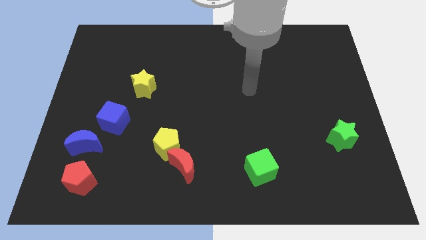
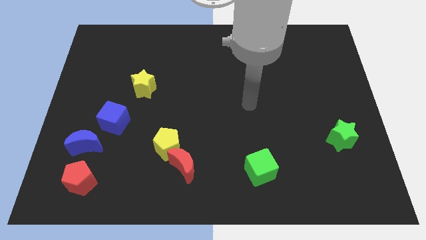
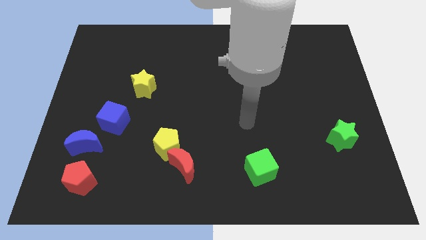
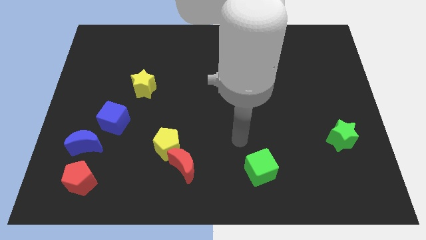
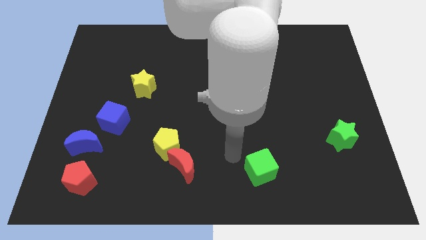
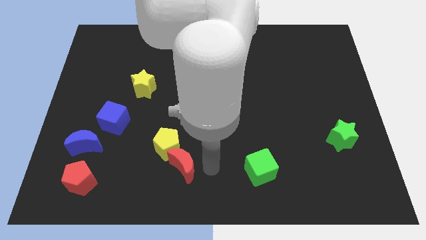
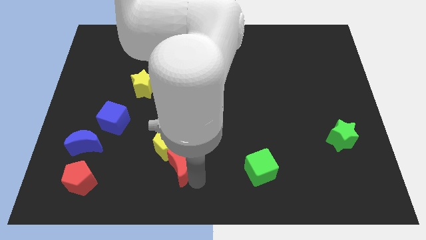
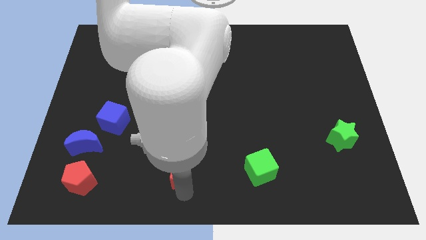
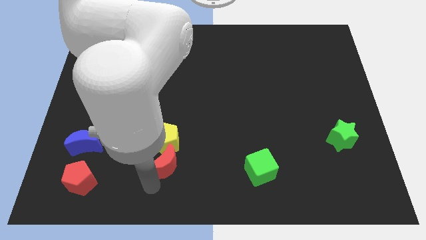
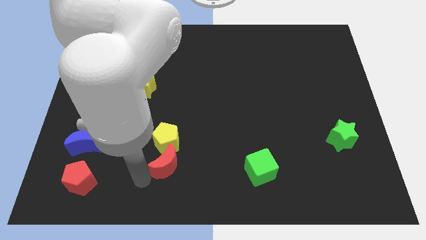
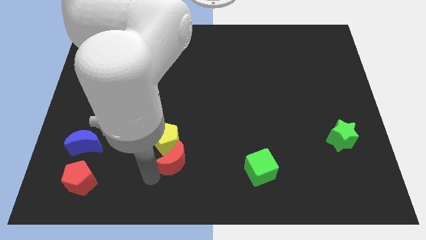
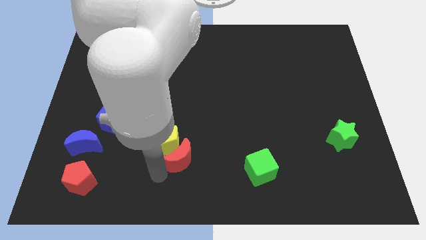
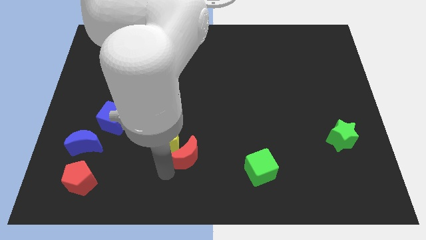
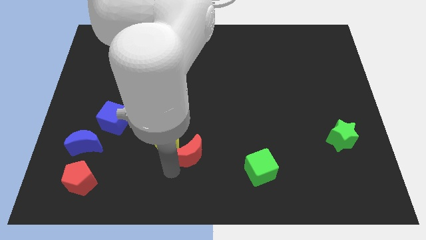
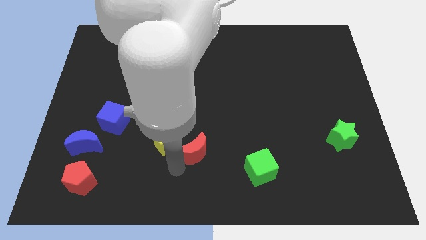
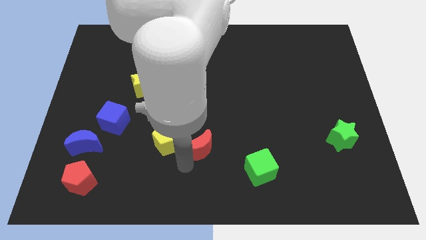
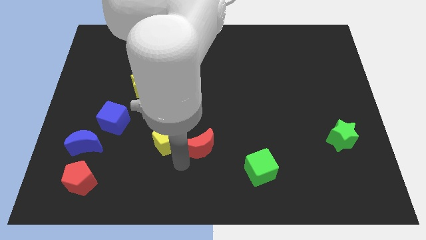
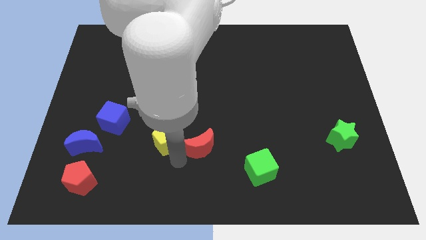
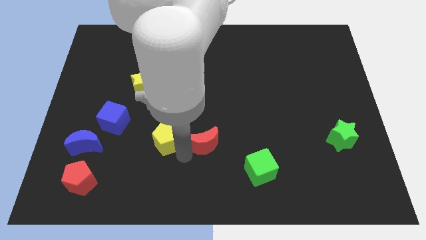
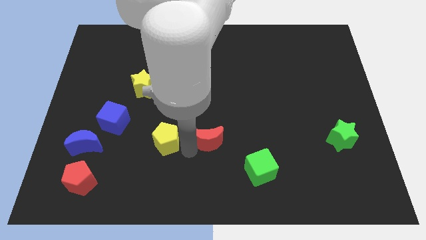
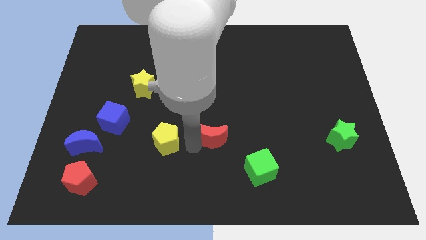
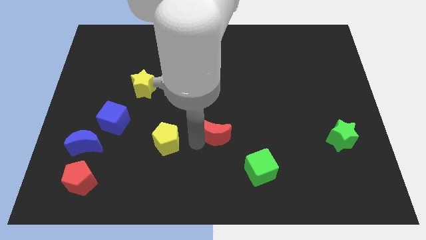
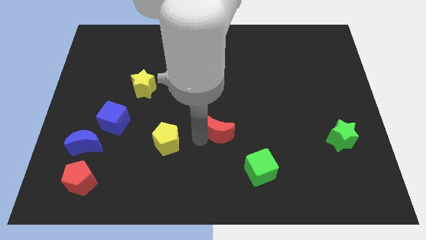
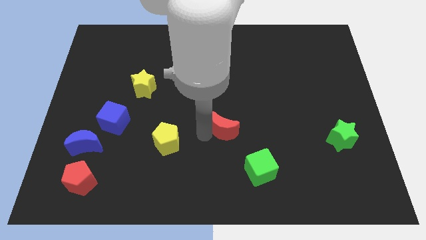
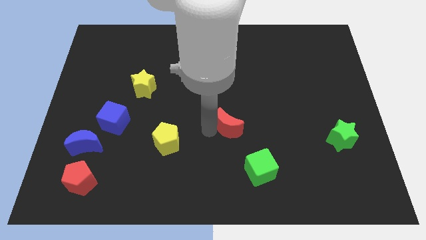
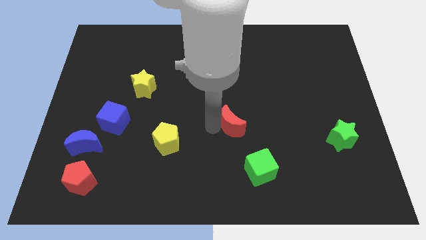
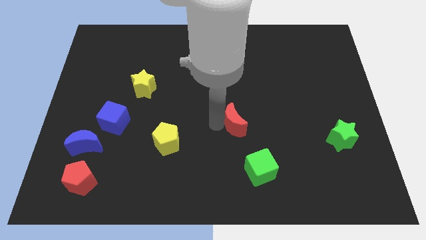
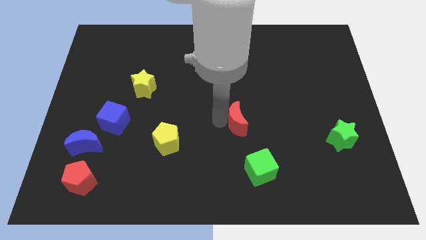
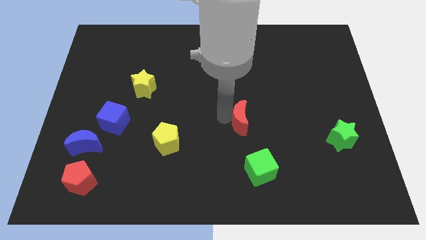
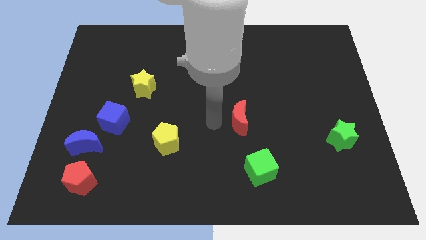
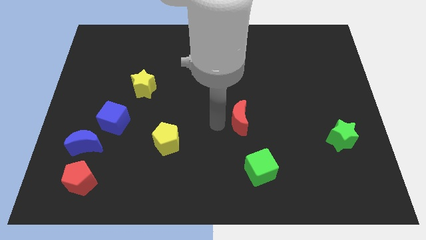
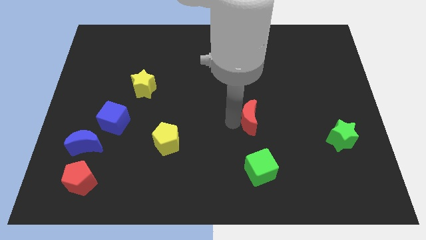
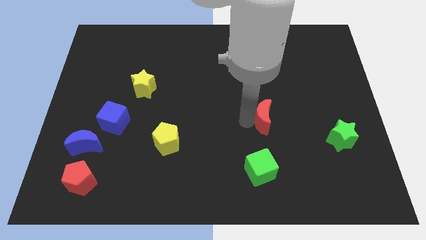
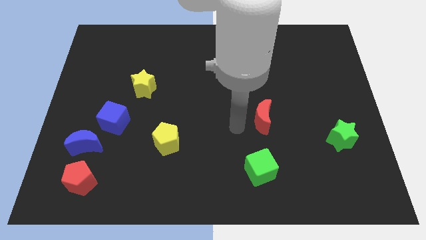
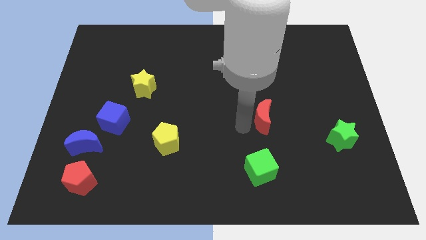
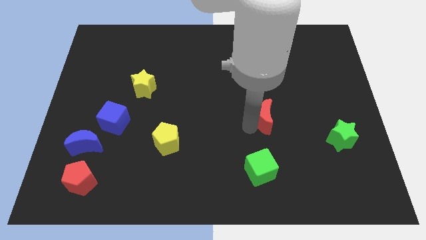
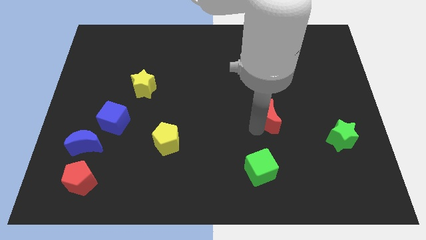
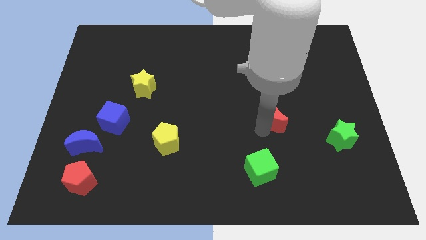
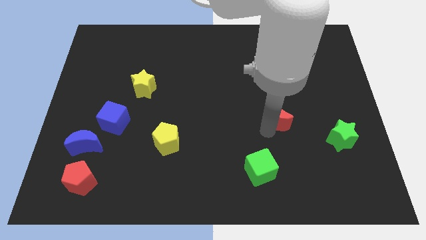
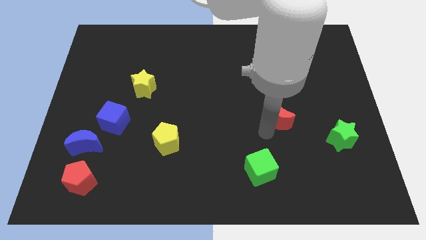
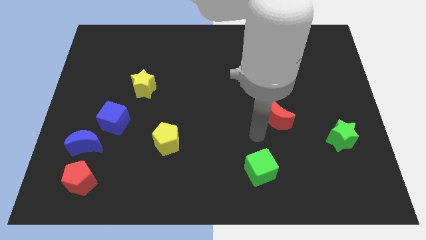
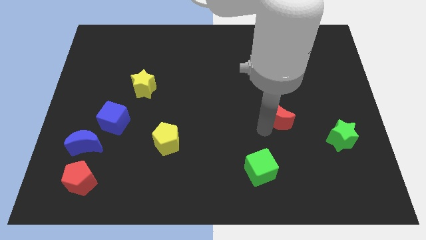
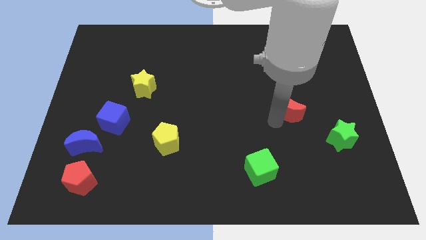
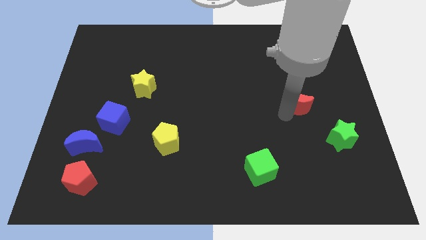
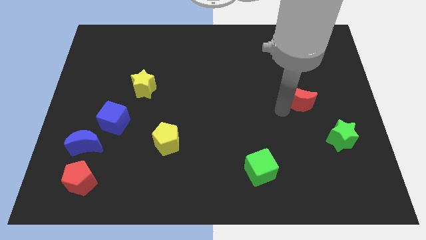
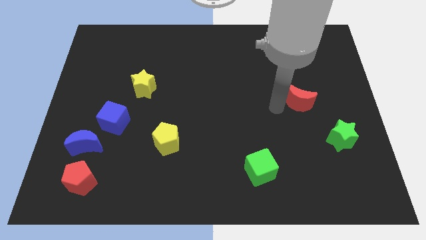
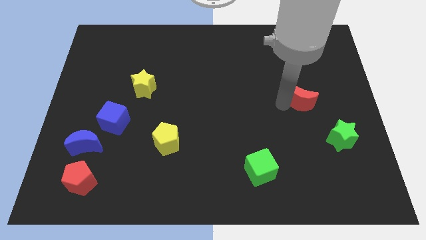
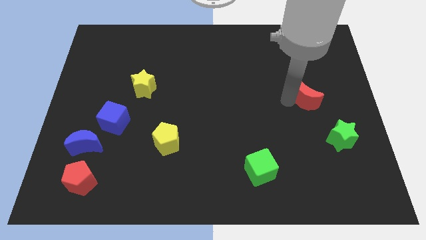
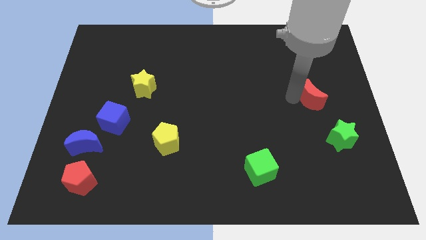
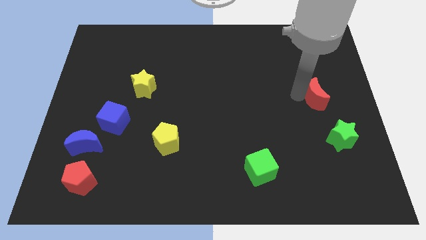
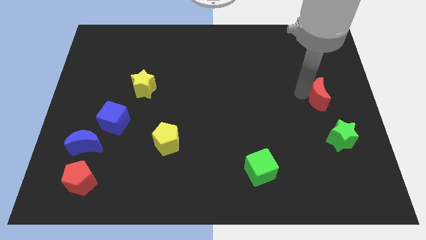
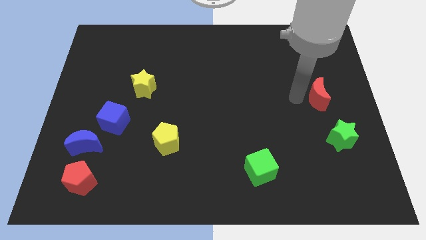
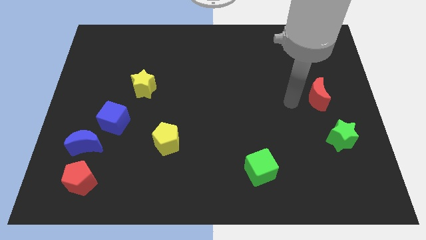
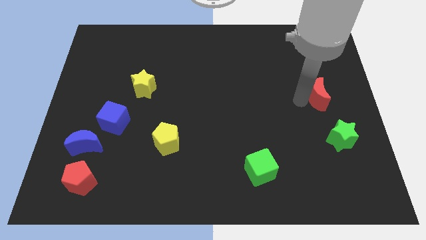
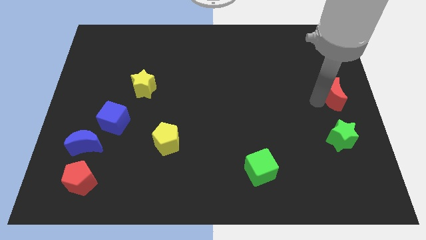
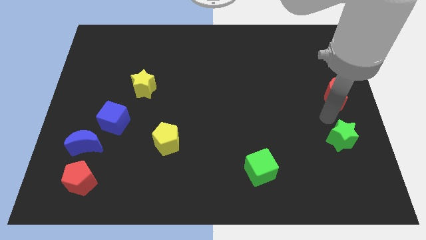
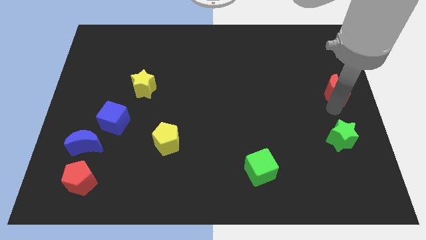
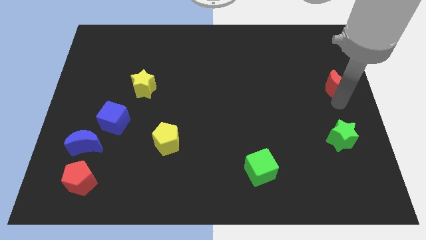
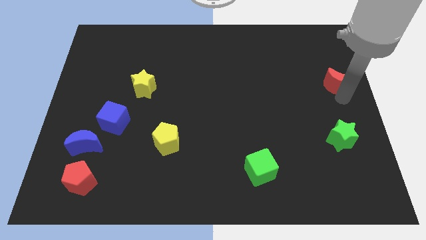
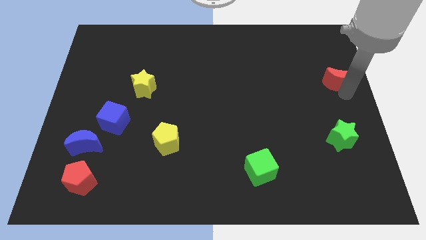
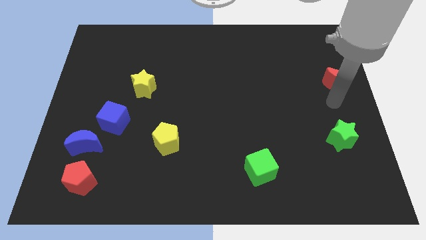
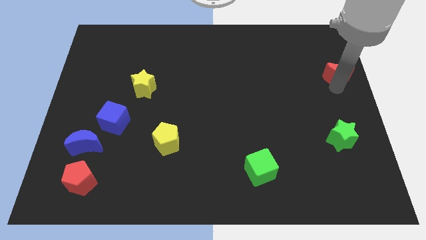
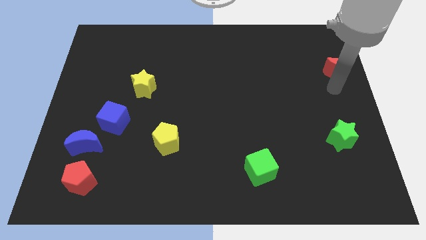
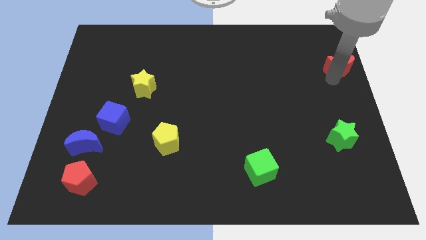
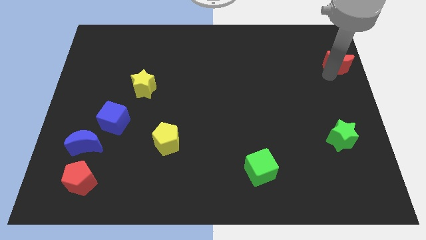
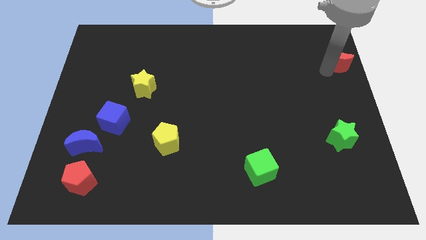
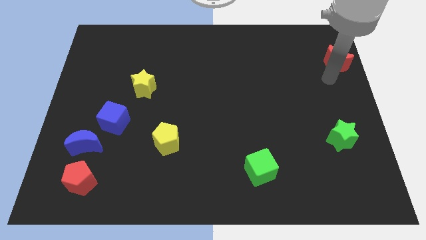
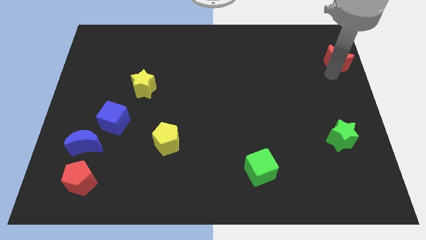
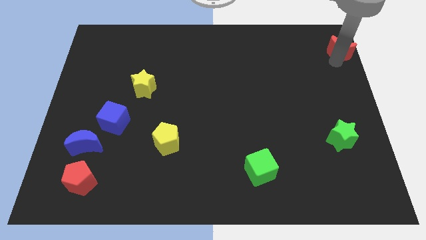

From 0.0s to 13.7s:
push the red moon to the top right
